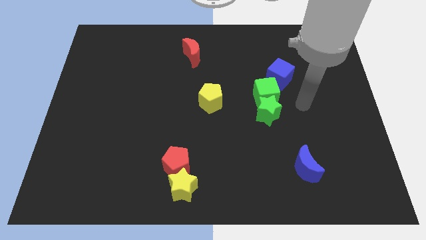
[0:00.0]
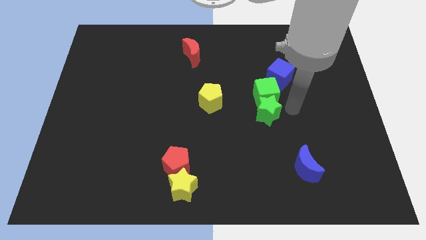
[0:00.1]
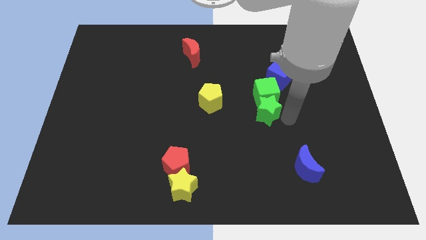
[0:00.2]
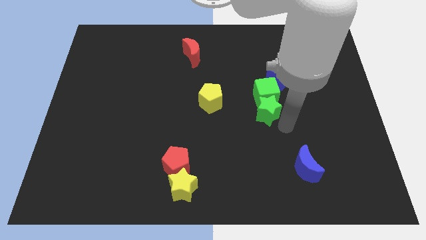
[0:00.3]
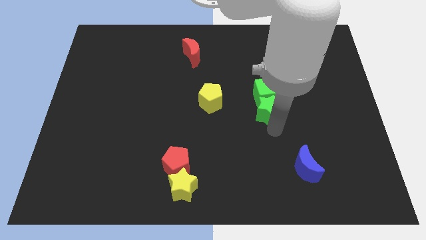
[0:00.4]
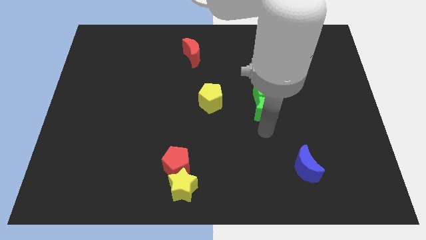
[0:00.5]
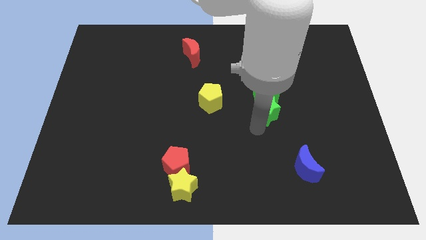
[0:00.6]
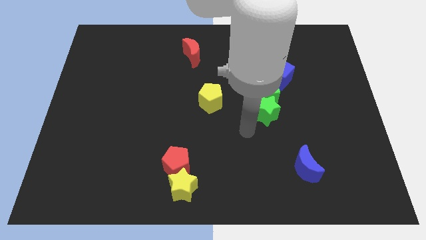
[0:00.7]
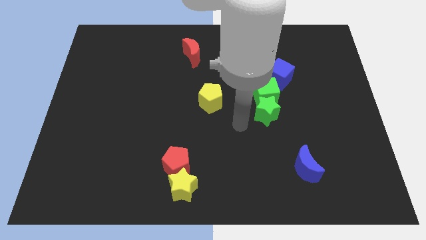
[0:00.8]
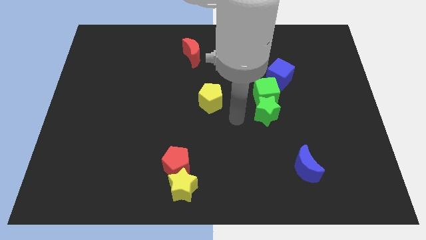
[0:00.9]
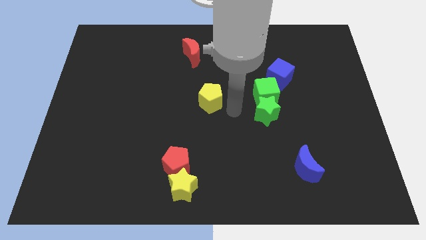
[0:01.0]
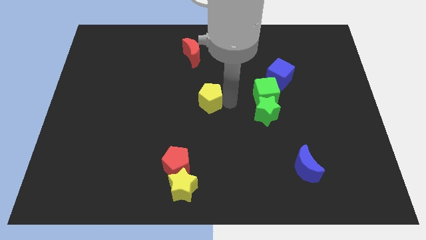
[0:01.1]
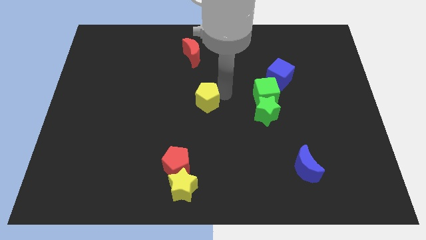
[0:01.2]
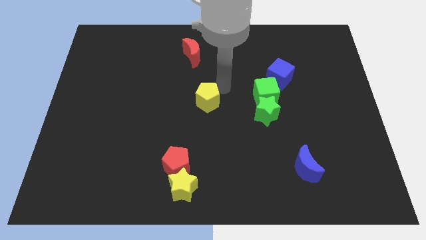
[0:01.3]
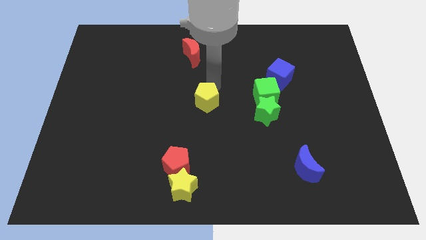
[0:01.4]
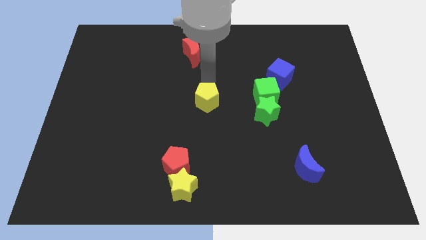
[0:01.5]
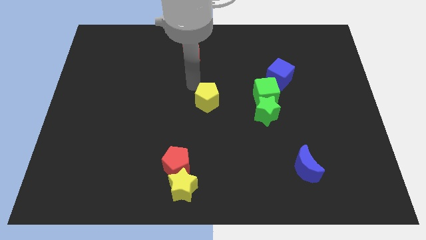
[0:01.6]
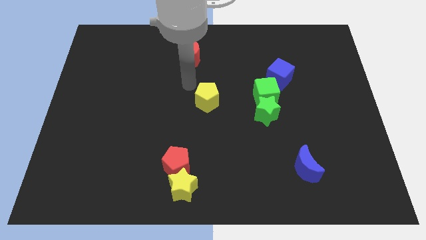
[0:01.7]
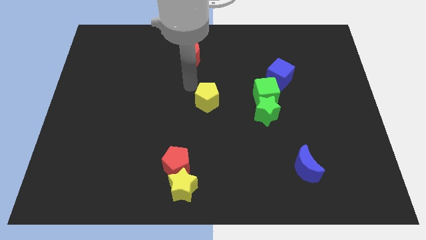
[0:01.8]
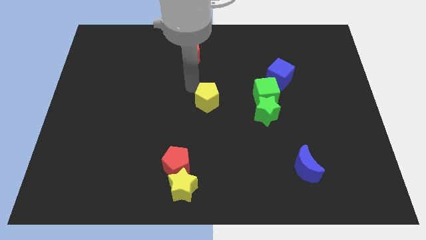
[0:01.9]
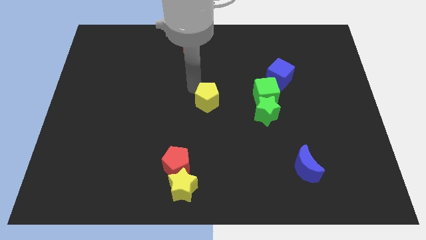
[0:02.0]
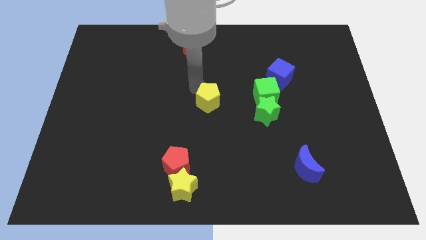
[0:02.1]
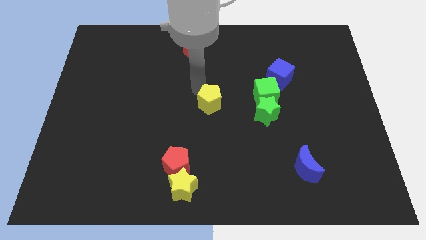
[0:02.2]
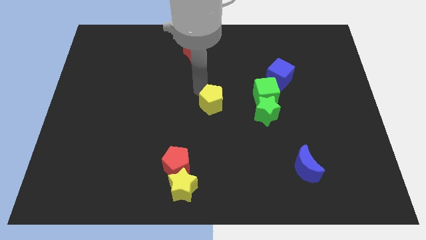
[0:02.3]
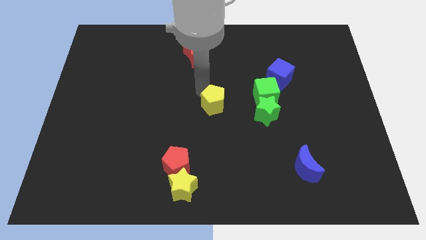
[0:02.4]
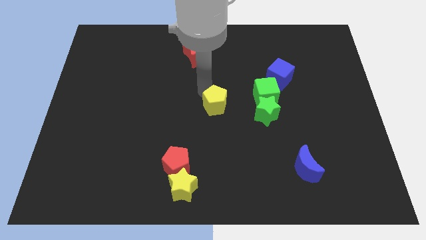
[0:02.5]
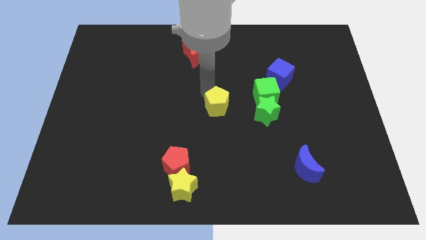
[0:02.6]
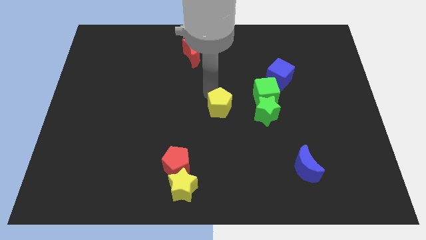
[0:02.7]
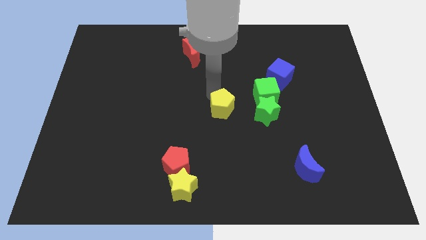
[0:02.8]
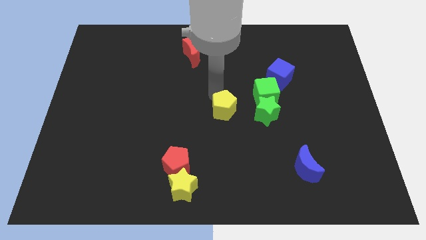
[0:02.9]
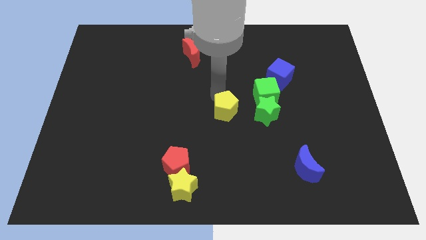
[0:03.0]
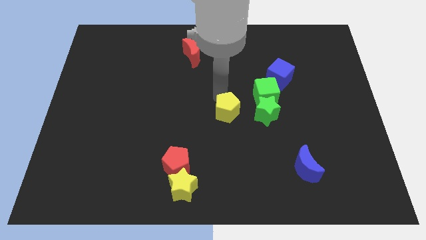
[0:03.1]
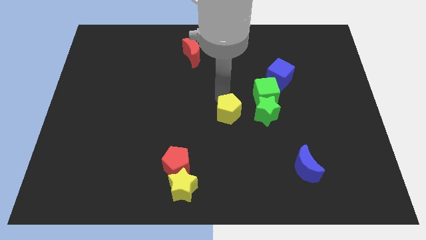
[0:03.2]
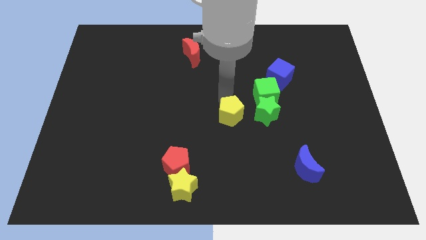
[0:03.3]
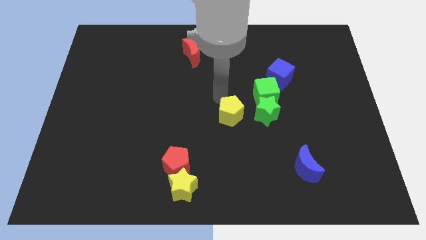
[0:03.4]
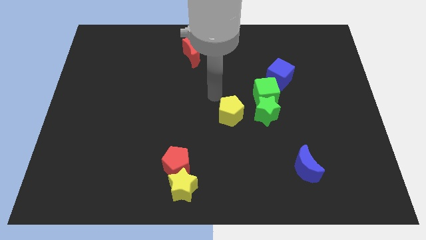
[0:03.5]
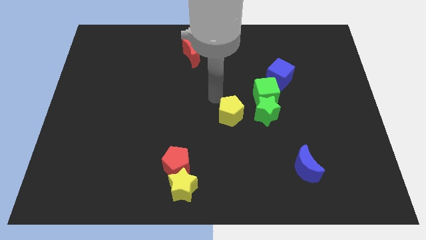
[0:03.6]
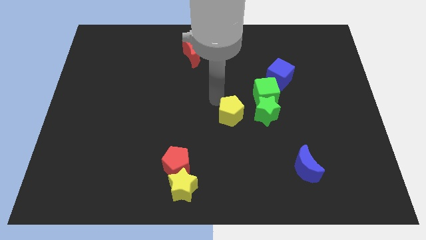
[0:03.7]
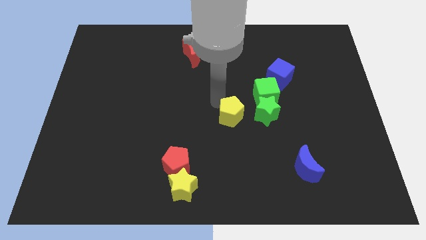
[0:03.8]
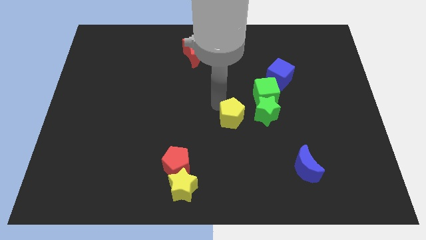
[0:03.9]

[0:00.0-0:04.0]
slightly slide the yellow pentagon downwards and to the right

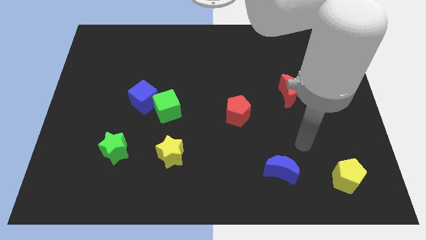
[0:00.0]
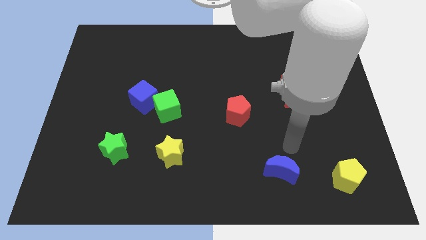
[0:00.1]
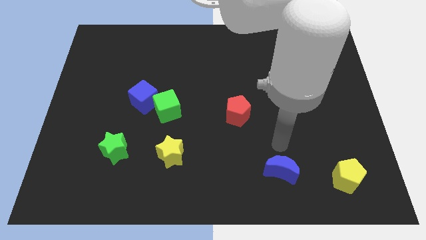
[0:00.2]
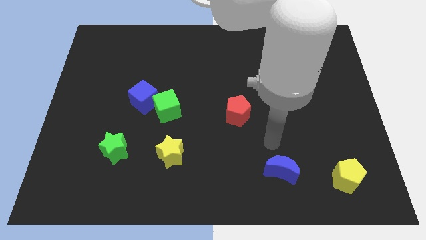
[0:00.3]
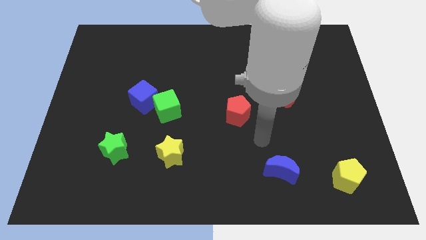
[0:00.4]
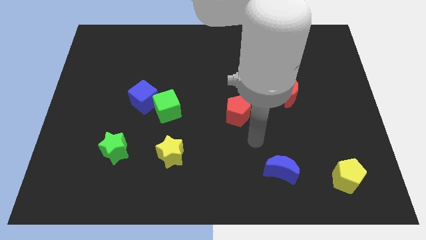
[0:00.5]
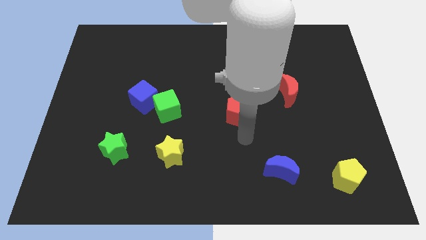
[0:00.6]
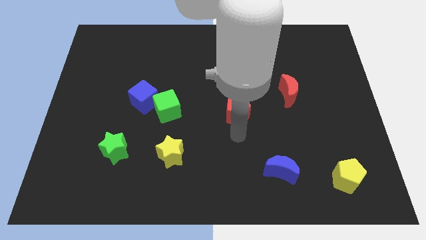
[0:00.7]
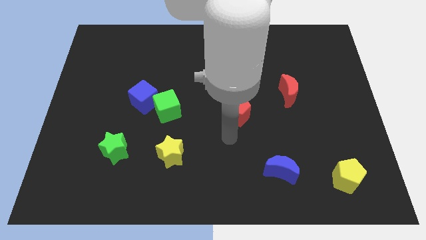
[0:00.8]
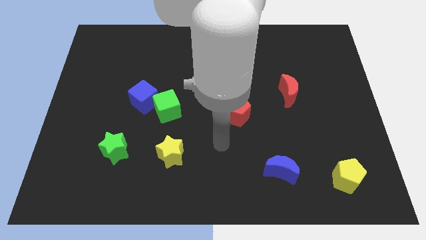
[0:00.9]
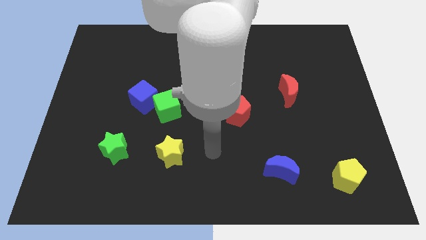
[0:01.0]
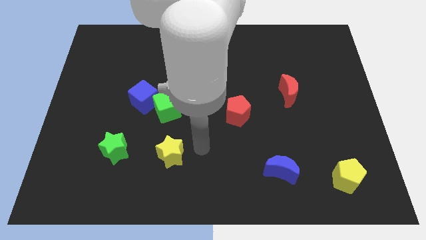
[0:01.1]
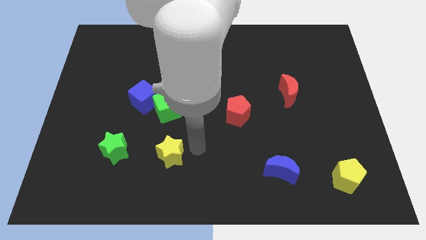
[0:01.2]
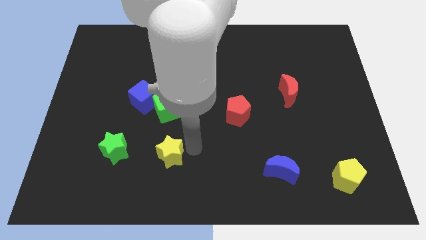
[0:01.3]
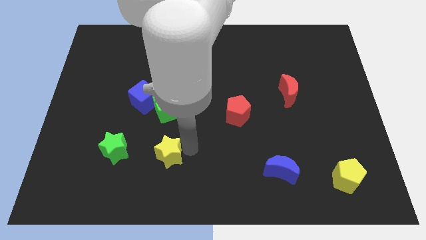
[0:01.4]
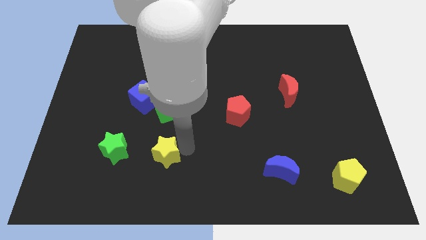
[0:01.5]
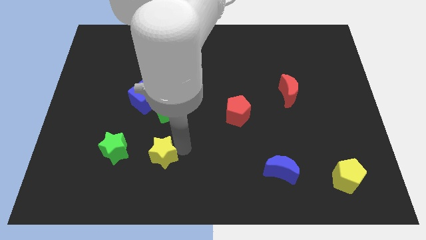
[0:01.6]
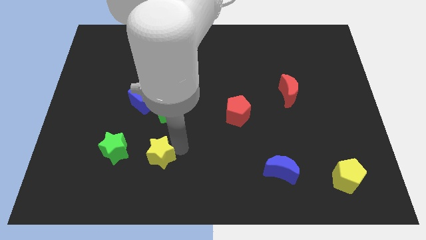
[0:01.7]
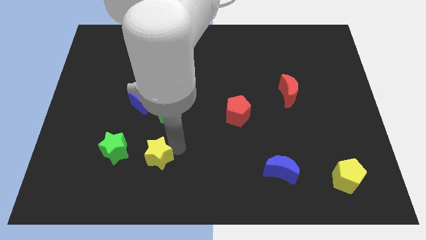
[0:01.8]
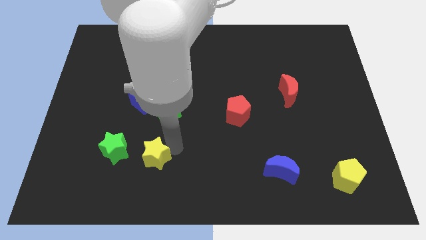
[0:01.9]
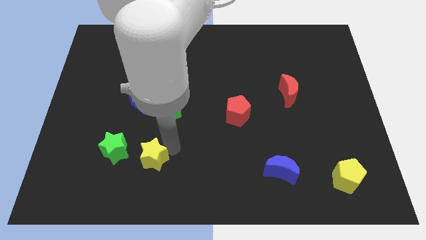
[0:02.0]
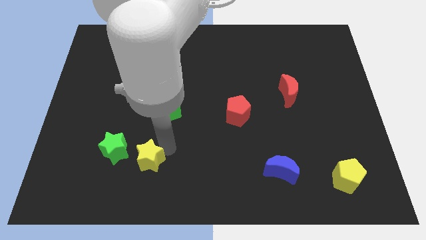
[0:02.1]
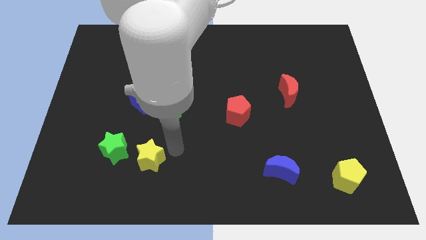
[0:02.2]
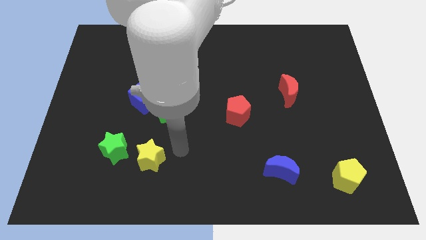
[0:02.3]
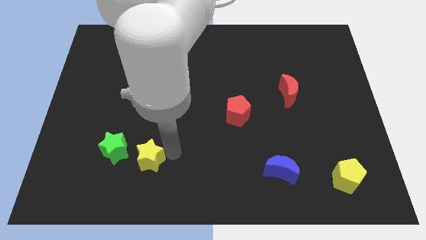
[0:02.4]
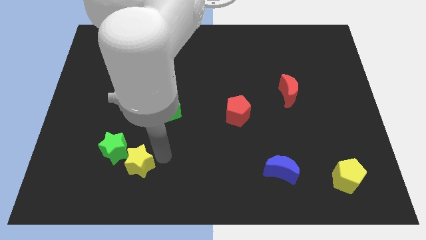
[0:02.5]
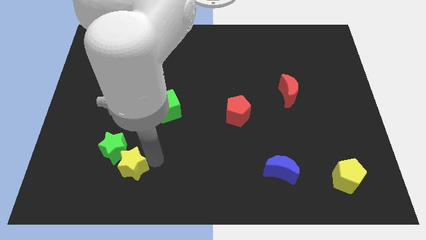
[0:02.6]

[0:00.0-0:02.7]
slide the yellow star somewhat to the left

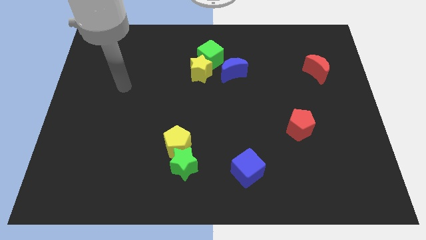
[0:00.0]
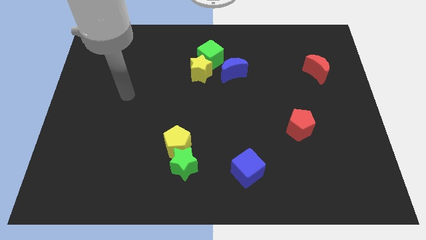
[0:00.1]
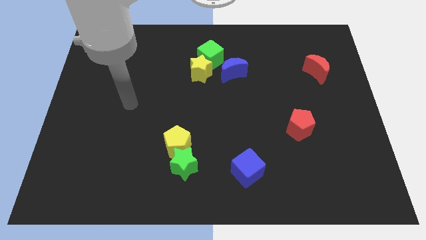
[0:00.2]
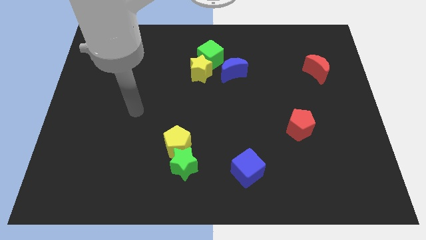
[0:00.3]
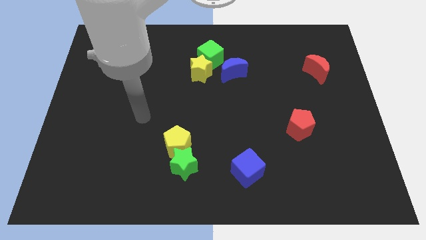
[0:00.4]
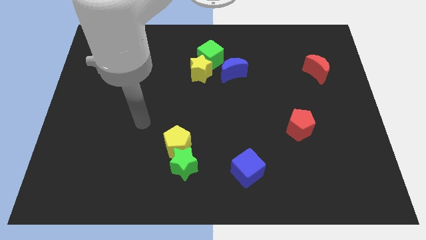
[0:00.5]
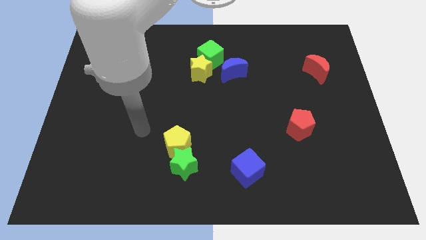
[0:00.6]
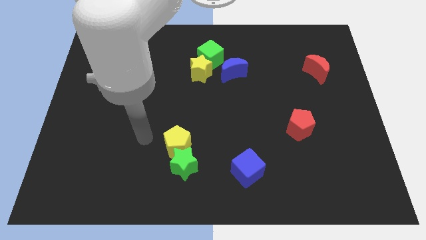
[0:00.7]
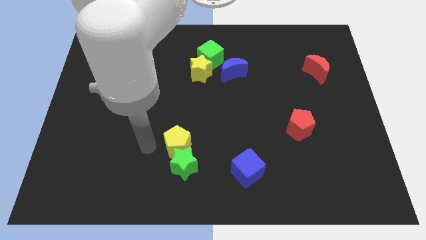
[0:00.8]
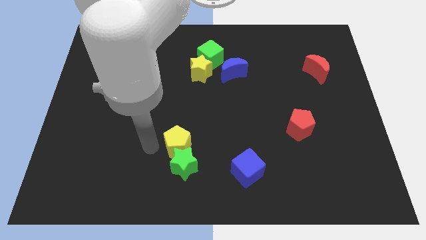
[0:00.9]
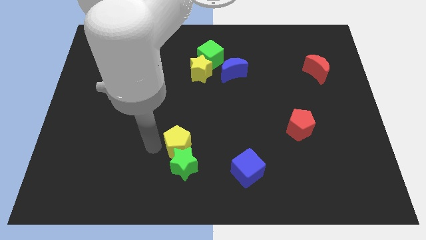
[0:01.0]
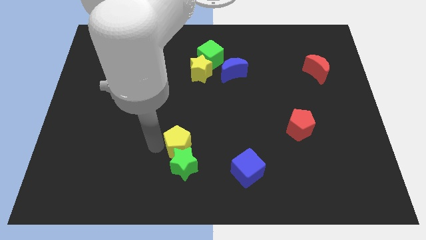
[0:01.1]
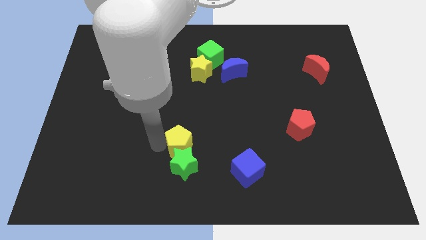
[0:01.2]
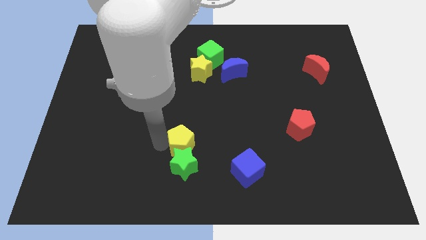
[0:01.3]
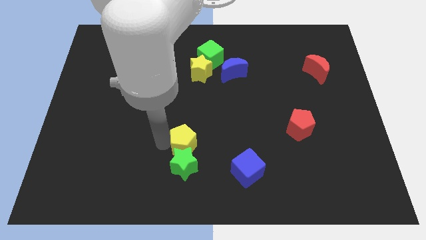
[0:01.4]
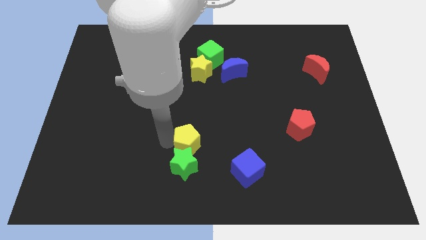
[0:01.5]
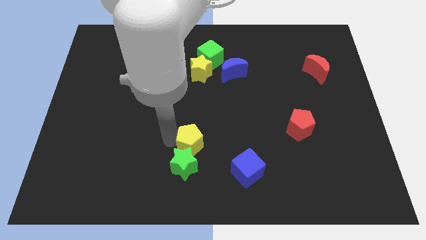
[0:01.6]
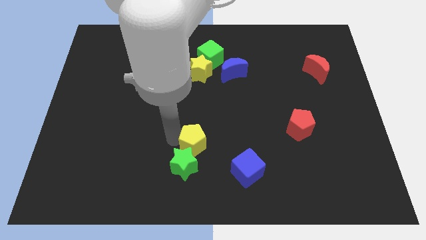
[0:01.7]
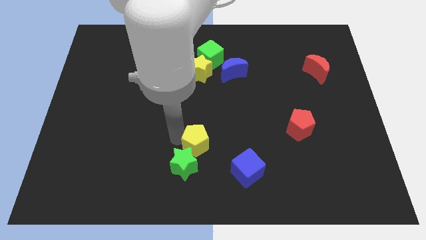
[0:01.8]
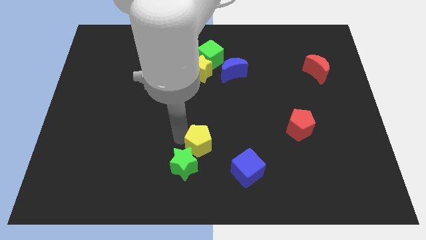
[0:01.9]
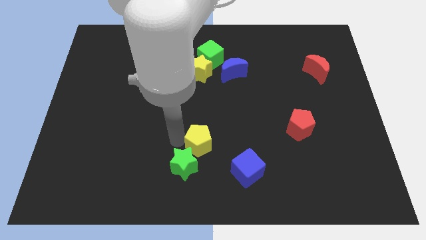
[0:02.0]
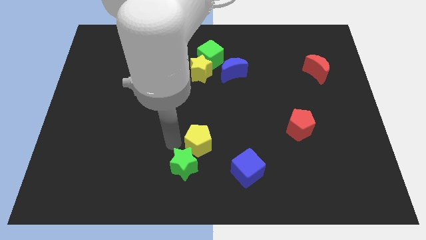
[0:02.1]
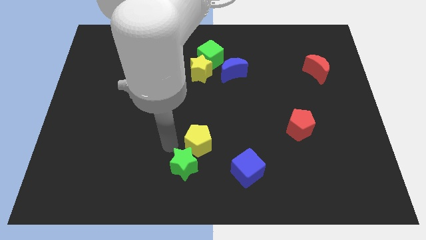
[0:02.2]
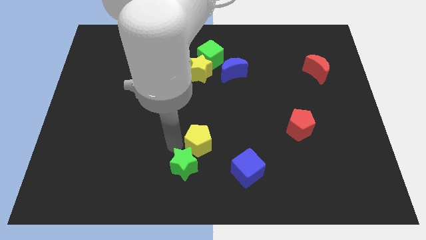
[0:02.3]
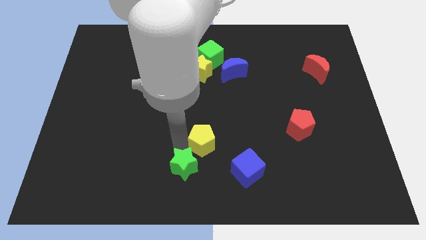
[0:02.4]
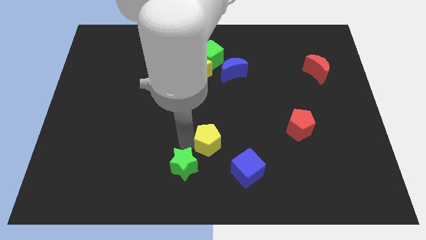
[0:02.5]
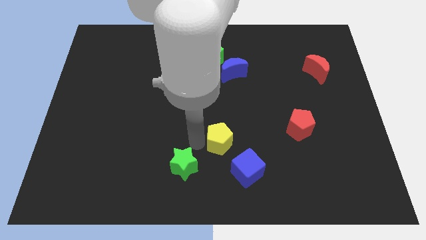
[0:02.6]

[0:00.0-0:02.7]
move the yellow pentagon slightly to the right
